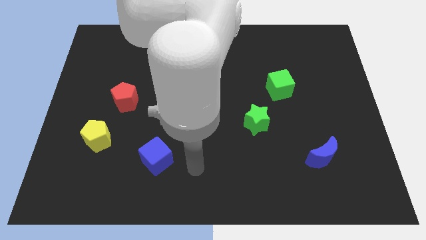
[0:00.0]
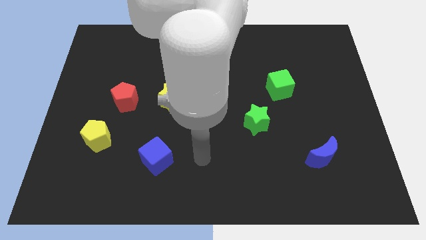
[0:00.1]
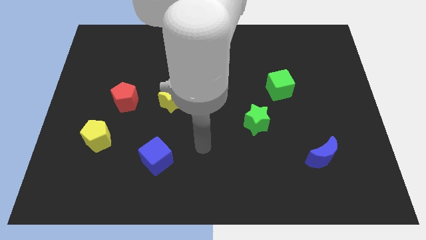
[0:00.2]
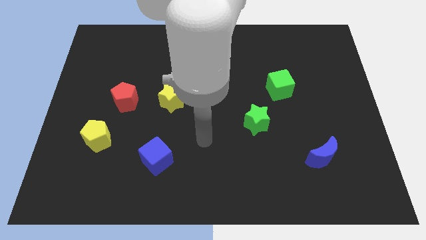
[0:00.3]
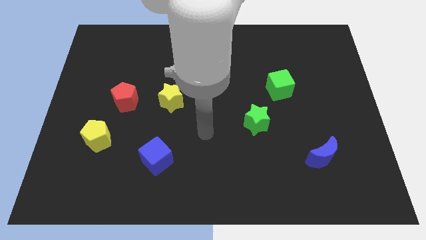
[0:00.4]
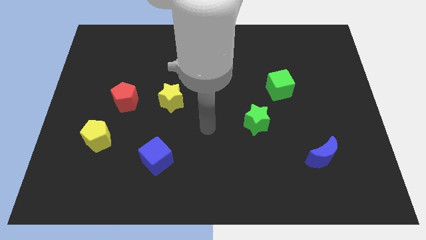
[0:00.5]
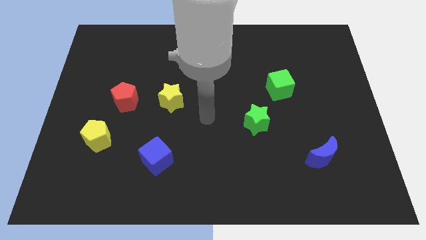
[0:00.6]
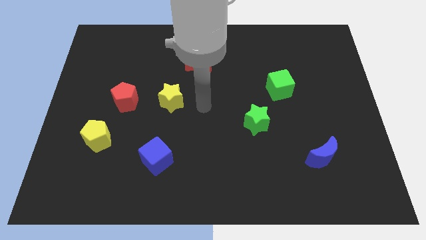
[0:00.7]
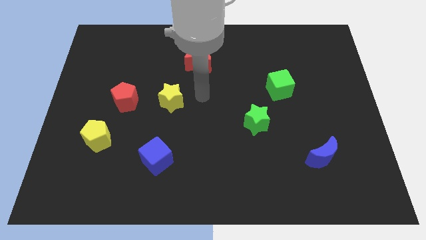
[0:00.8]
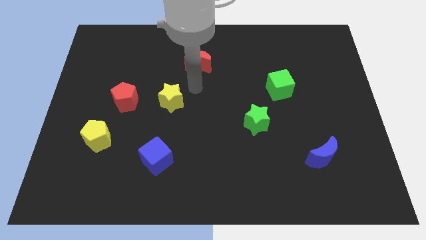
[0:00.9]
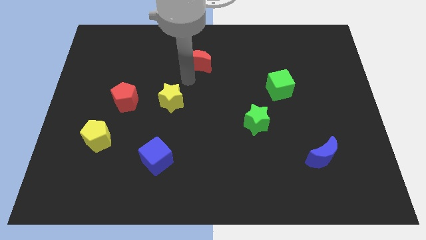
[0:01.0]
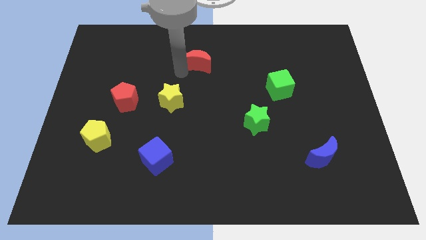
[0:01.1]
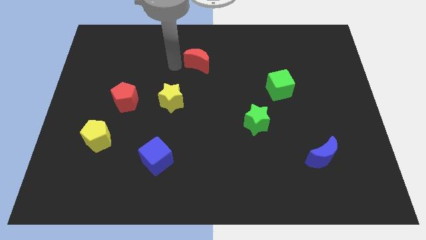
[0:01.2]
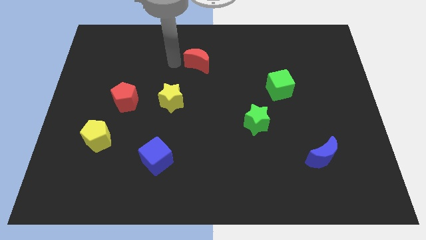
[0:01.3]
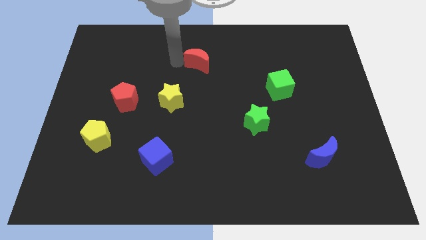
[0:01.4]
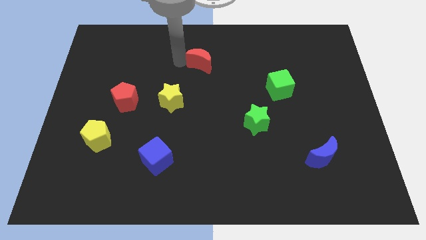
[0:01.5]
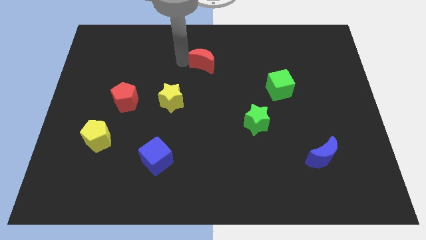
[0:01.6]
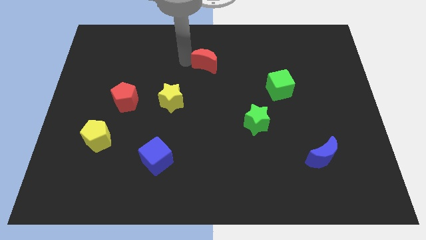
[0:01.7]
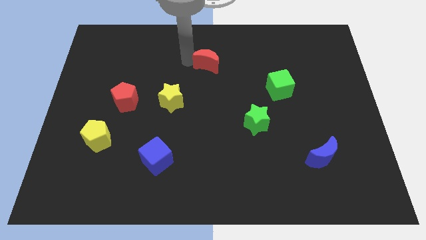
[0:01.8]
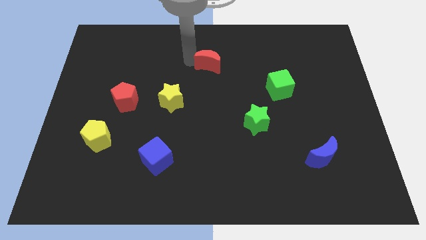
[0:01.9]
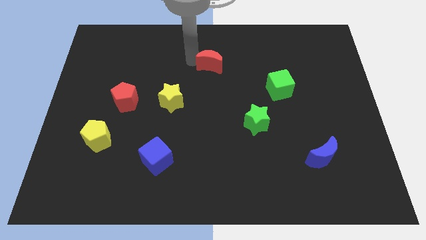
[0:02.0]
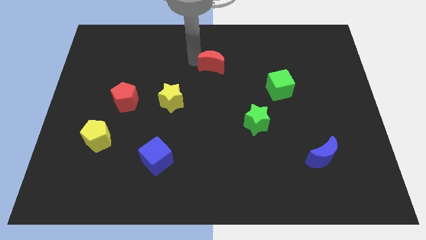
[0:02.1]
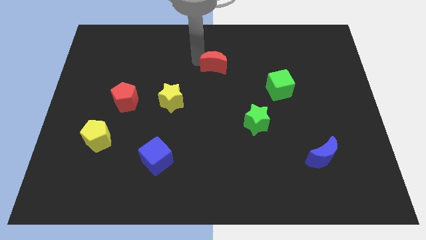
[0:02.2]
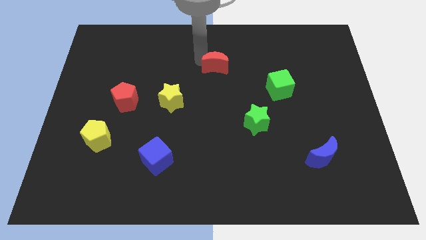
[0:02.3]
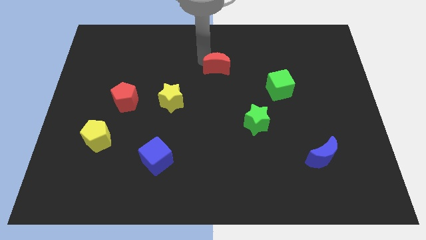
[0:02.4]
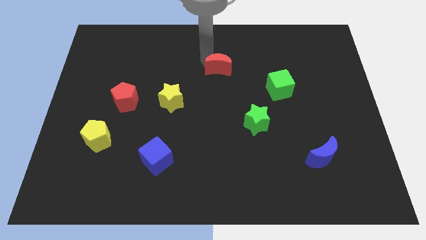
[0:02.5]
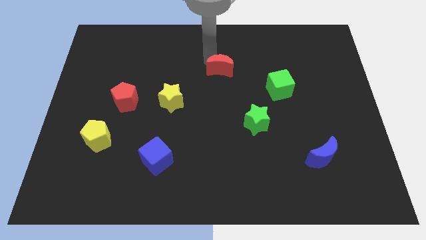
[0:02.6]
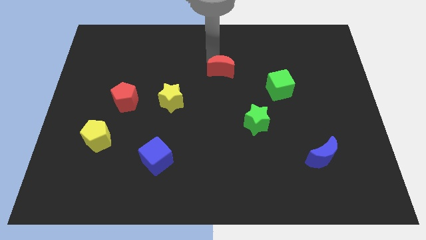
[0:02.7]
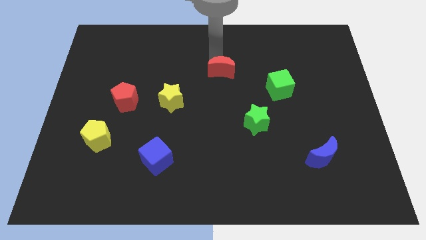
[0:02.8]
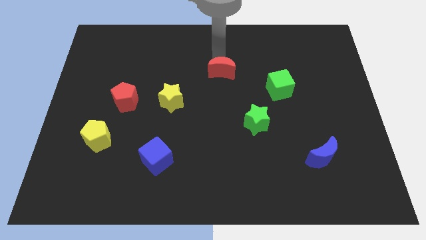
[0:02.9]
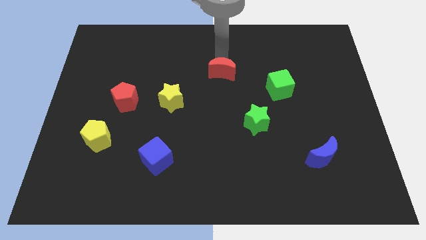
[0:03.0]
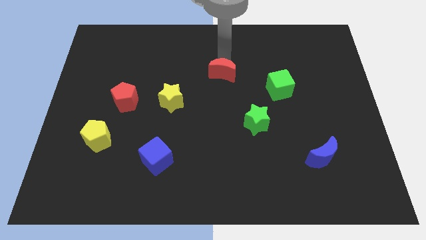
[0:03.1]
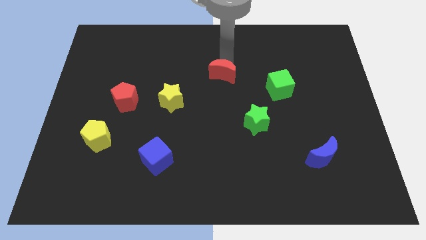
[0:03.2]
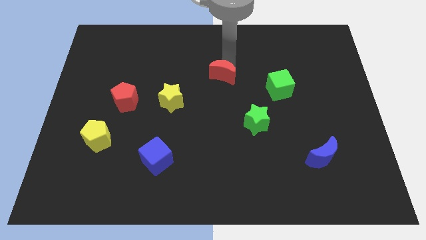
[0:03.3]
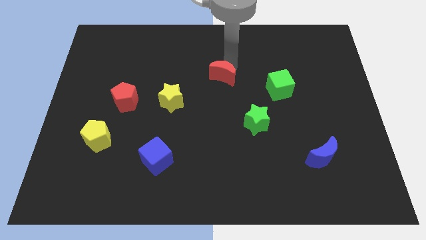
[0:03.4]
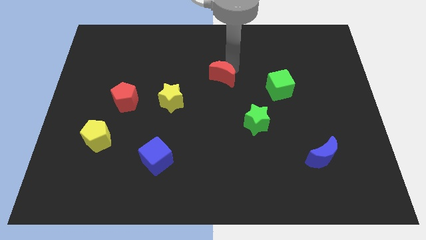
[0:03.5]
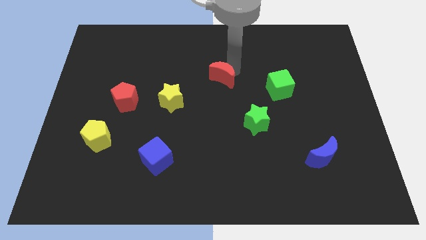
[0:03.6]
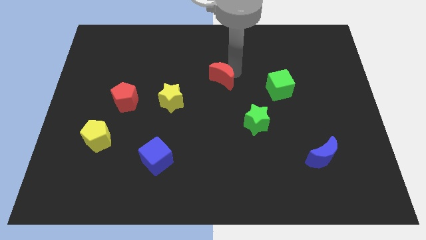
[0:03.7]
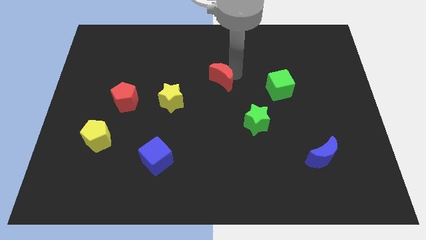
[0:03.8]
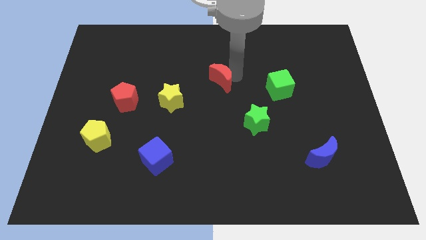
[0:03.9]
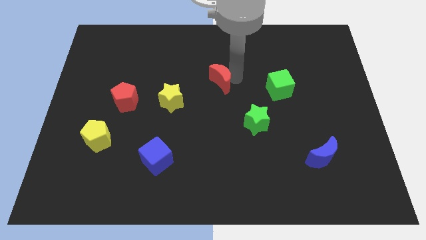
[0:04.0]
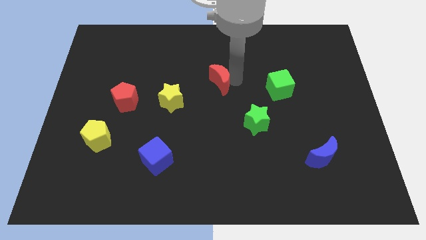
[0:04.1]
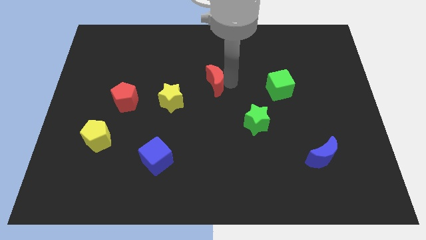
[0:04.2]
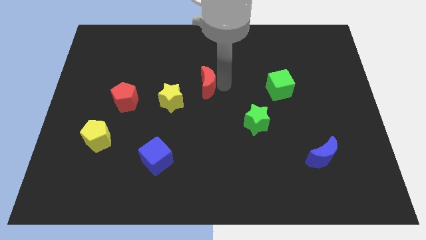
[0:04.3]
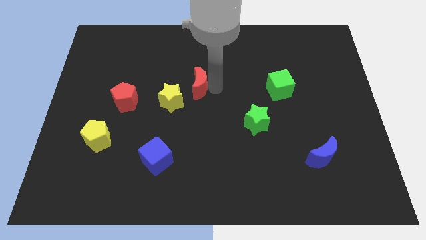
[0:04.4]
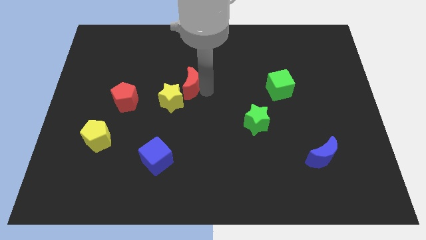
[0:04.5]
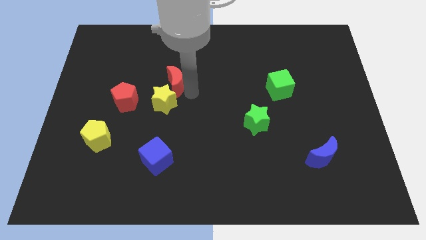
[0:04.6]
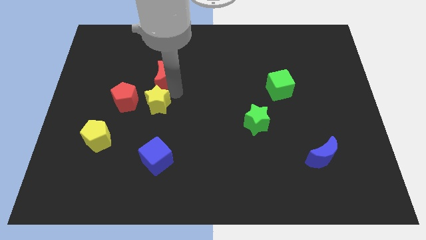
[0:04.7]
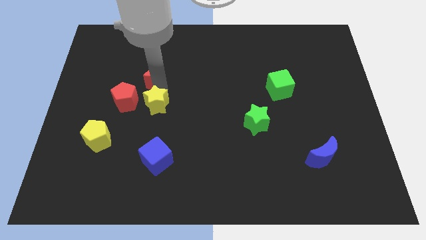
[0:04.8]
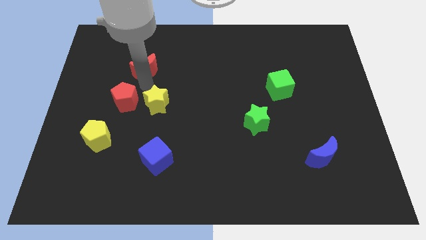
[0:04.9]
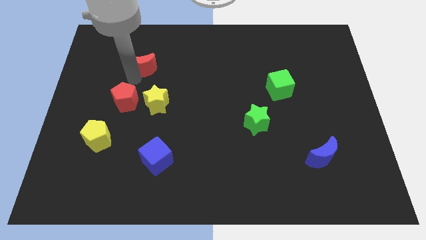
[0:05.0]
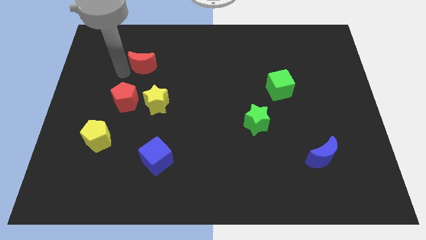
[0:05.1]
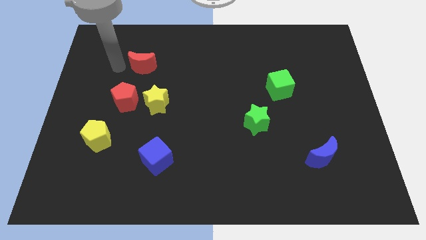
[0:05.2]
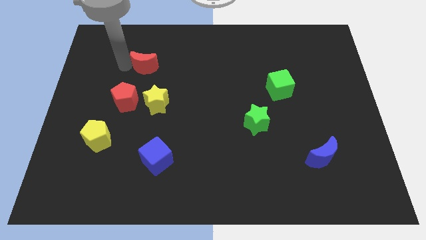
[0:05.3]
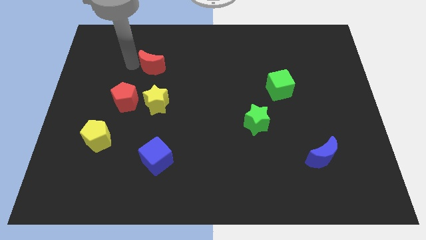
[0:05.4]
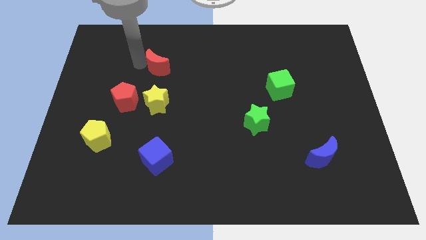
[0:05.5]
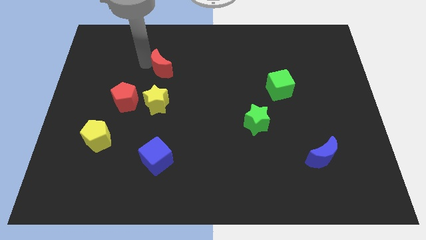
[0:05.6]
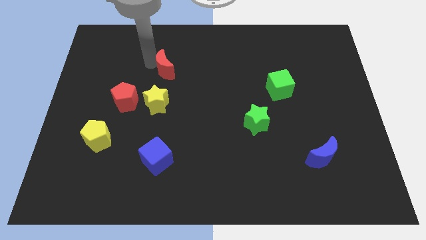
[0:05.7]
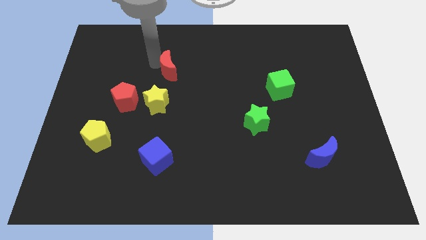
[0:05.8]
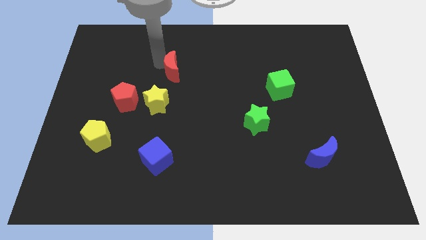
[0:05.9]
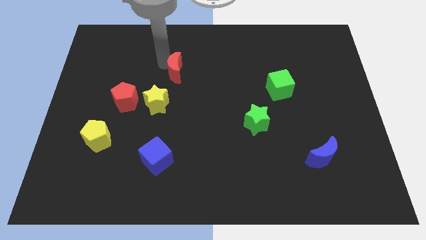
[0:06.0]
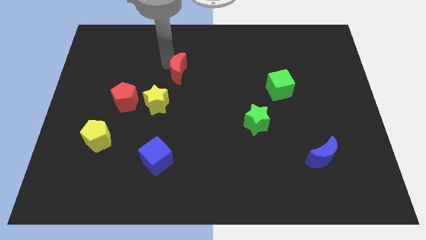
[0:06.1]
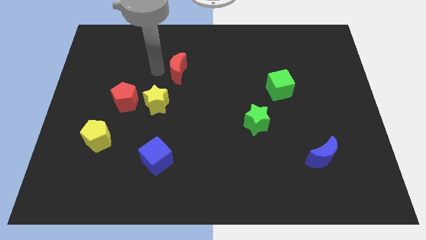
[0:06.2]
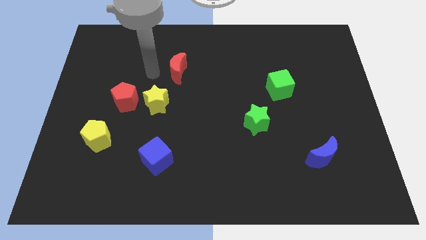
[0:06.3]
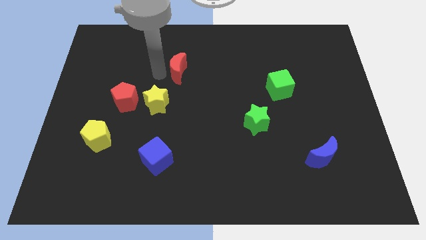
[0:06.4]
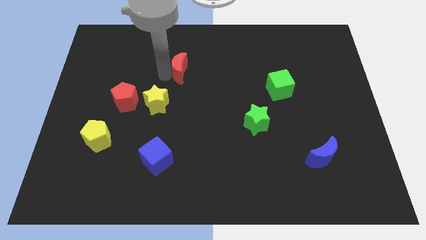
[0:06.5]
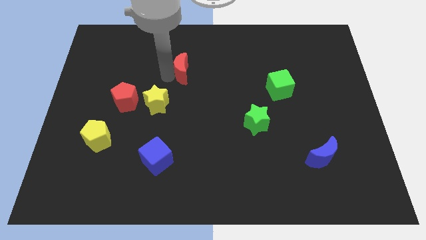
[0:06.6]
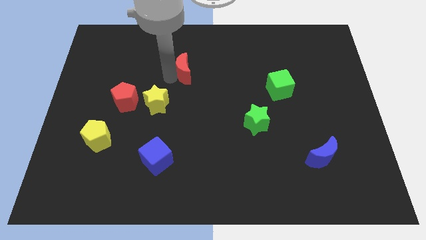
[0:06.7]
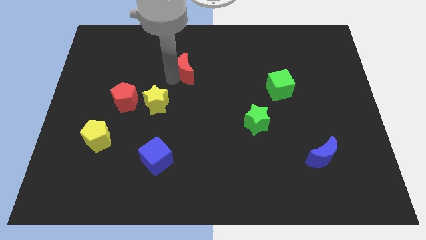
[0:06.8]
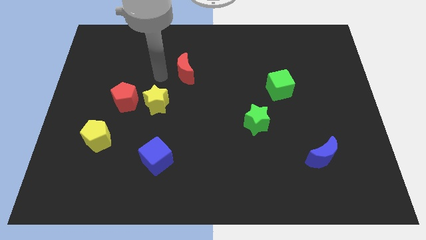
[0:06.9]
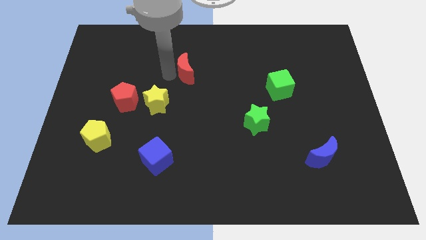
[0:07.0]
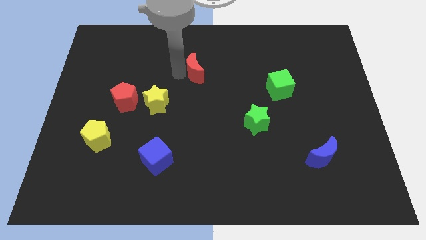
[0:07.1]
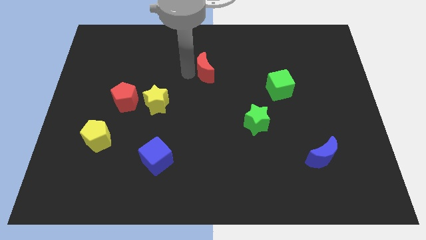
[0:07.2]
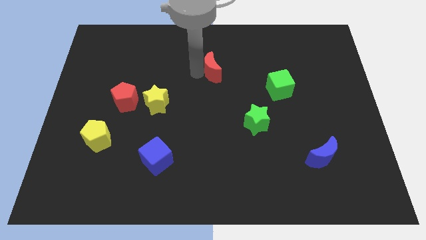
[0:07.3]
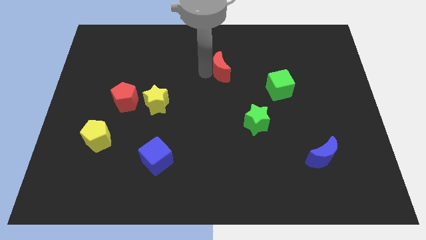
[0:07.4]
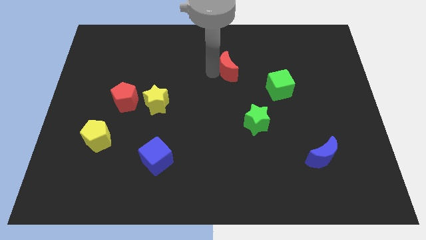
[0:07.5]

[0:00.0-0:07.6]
slide the red moon a little bit to the right
